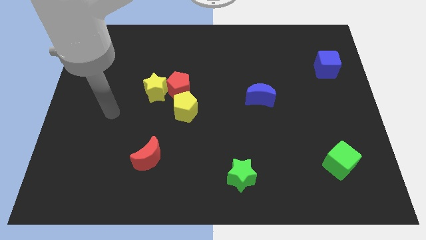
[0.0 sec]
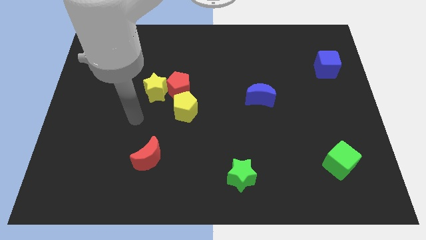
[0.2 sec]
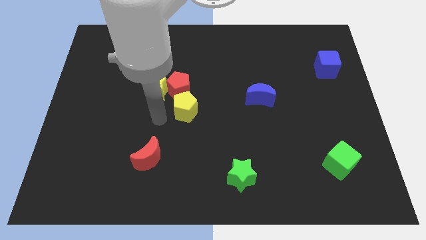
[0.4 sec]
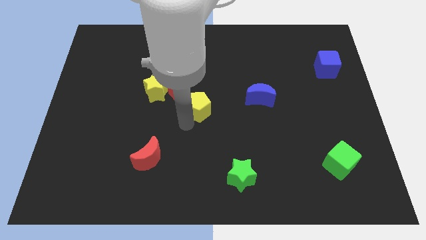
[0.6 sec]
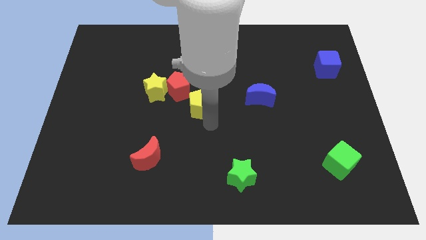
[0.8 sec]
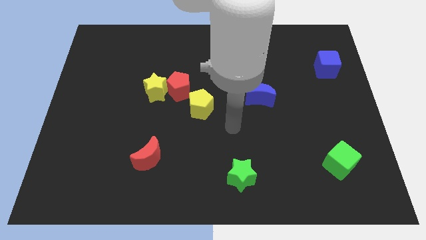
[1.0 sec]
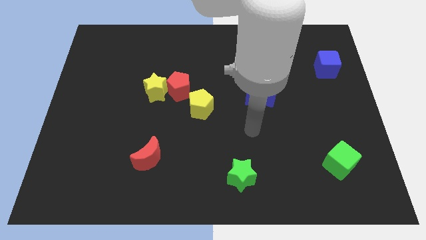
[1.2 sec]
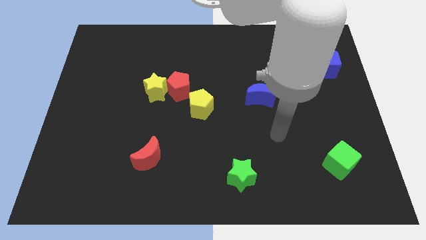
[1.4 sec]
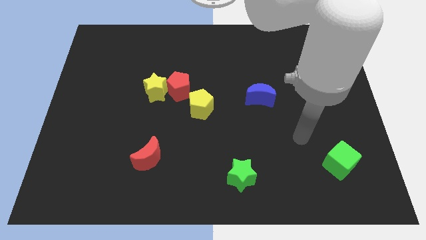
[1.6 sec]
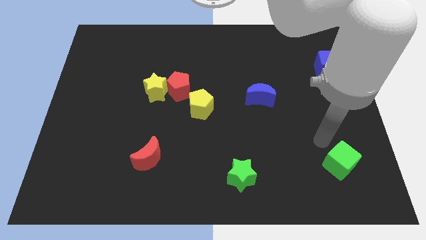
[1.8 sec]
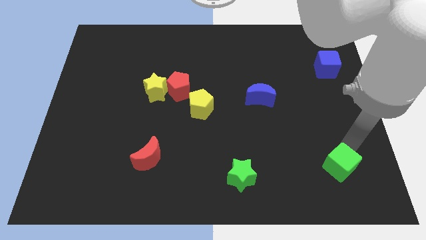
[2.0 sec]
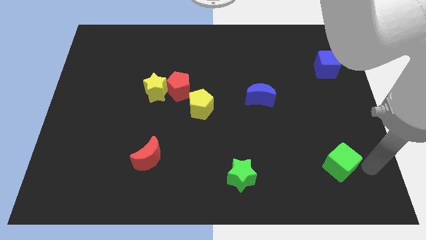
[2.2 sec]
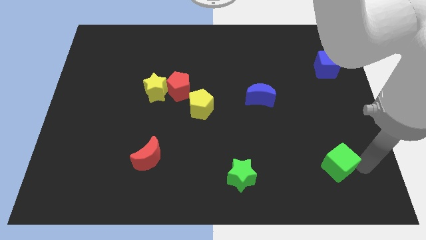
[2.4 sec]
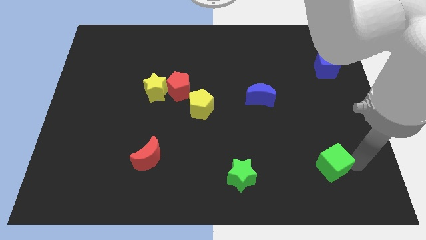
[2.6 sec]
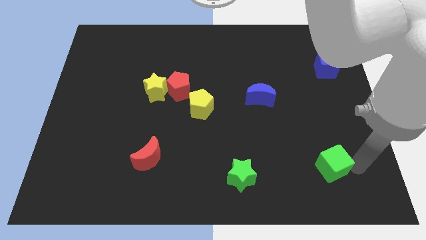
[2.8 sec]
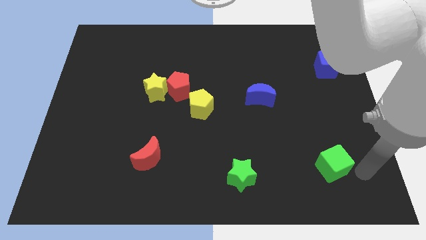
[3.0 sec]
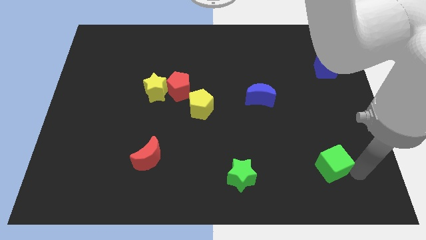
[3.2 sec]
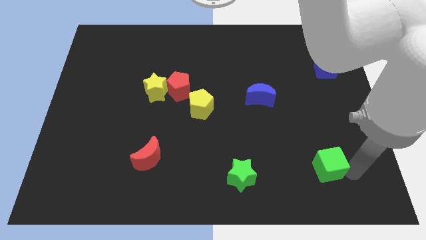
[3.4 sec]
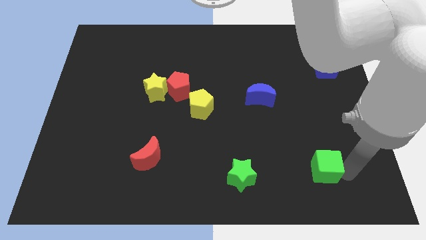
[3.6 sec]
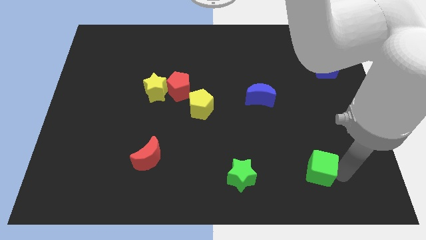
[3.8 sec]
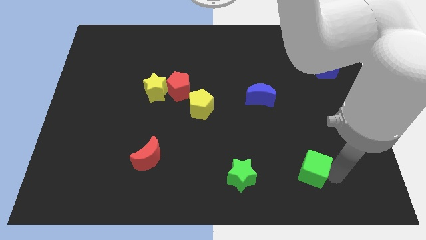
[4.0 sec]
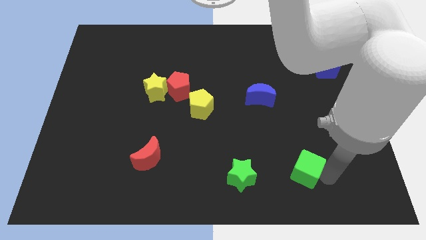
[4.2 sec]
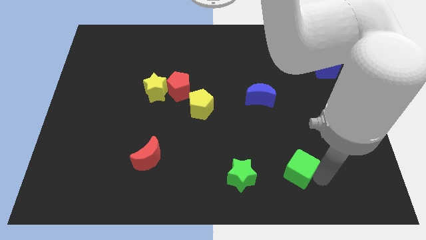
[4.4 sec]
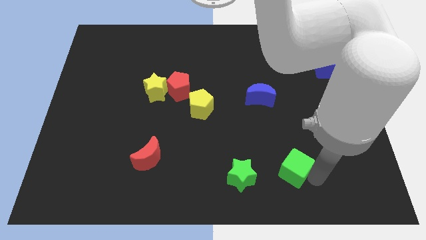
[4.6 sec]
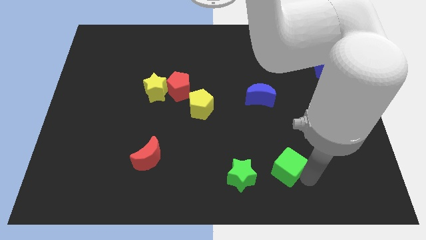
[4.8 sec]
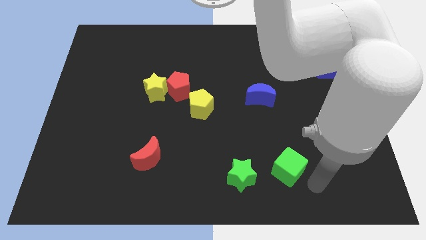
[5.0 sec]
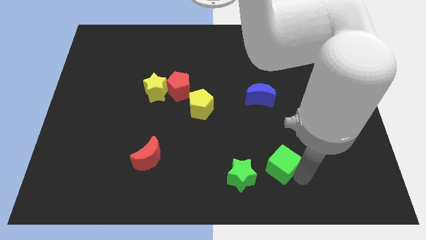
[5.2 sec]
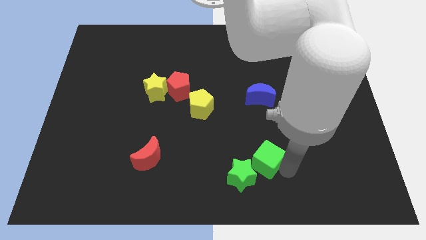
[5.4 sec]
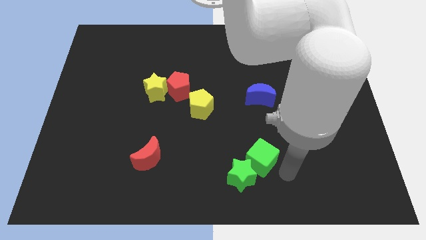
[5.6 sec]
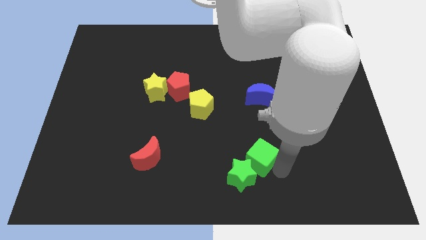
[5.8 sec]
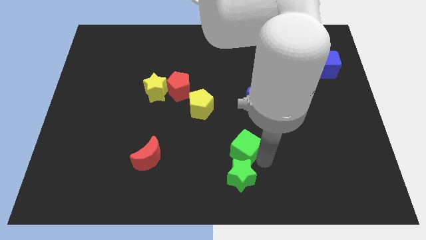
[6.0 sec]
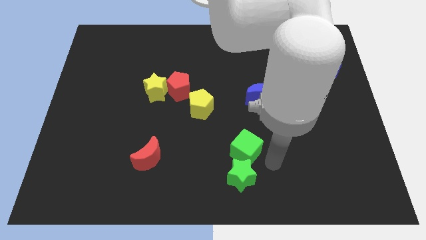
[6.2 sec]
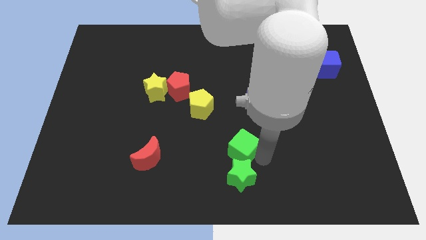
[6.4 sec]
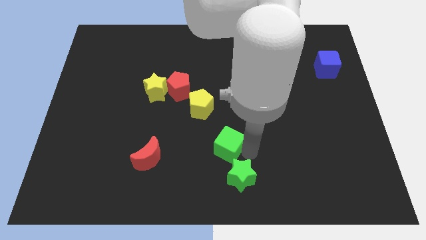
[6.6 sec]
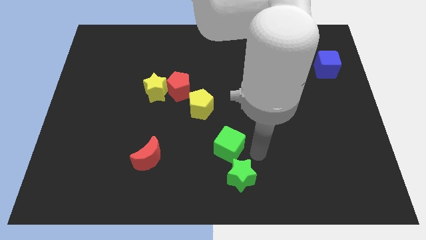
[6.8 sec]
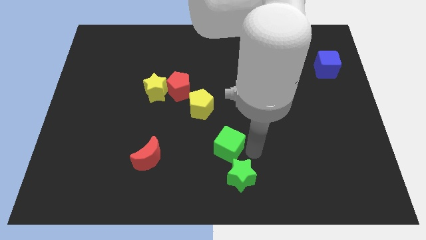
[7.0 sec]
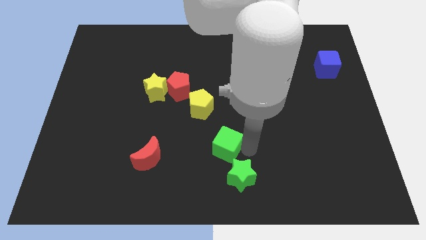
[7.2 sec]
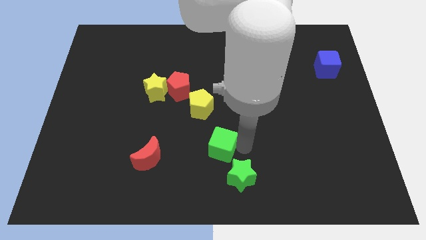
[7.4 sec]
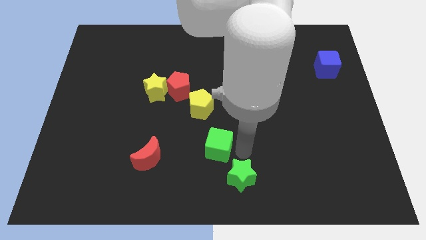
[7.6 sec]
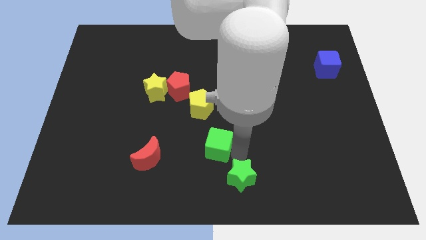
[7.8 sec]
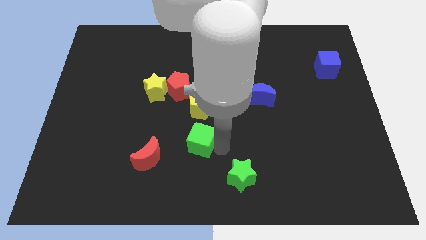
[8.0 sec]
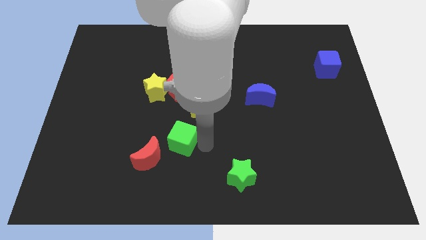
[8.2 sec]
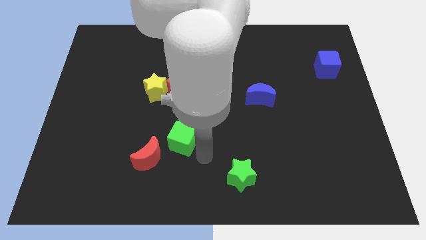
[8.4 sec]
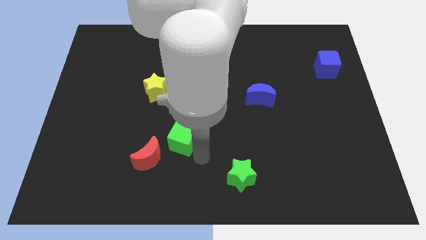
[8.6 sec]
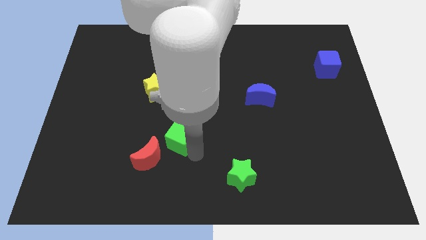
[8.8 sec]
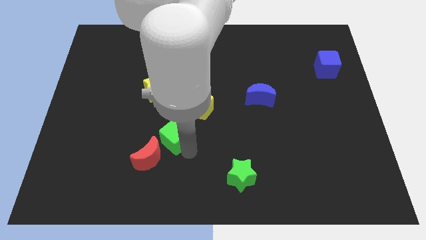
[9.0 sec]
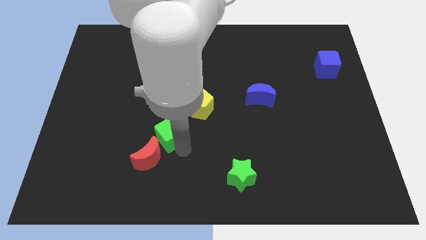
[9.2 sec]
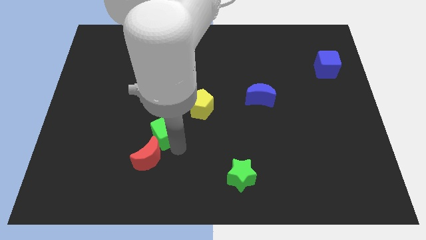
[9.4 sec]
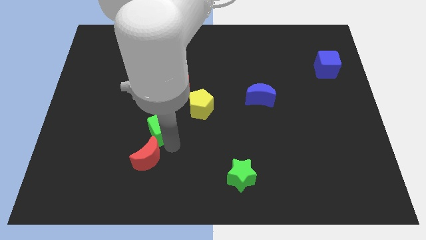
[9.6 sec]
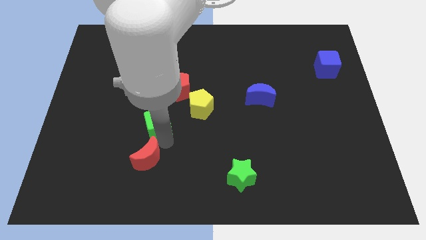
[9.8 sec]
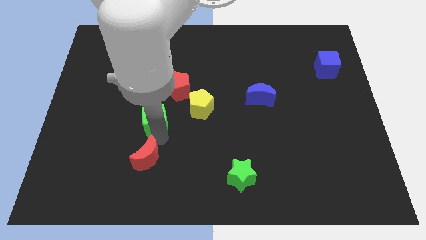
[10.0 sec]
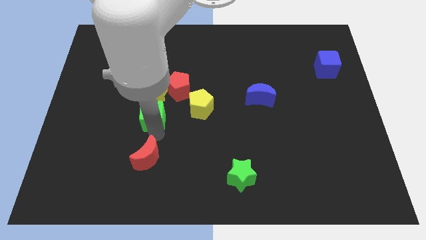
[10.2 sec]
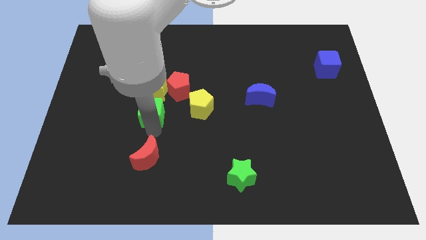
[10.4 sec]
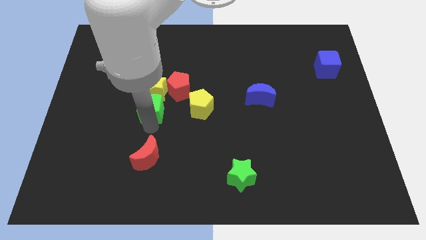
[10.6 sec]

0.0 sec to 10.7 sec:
move the green cube to the yellow star

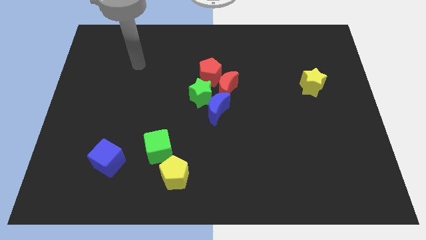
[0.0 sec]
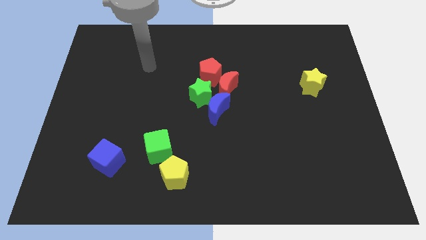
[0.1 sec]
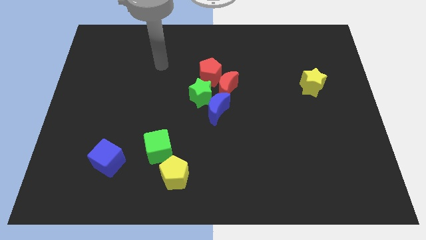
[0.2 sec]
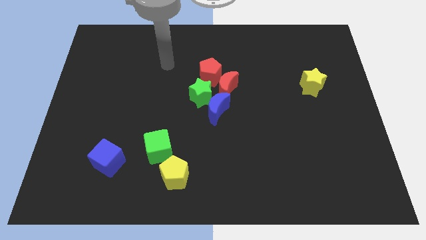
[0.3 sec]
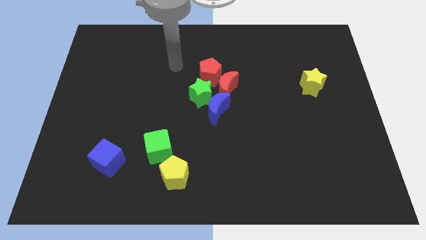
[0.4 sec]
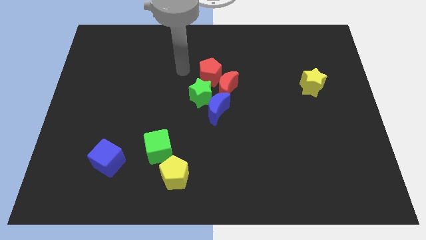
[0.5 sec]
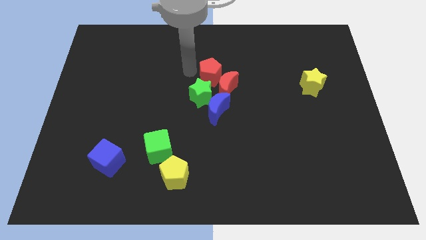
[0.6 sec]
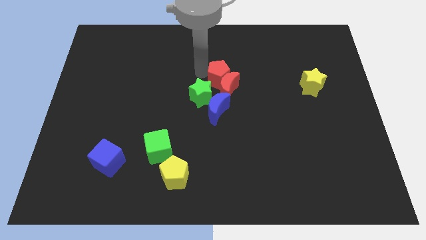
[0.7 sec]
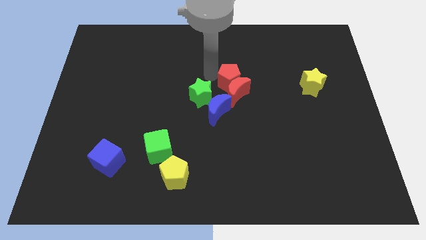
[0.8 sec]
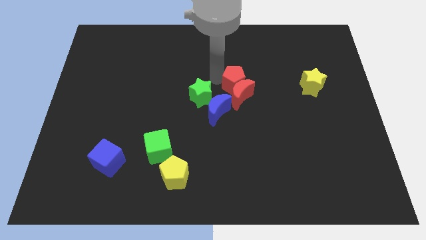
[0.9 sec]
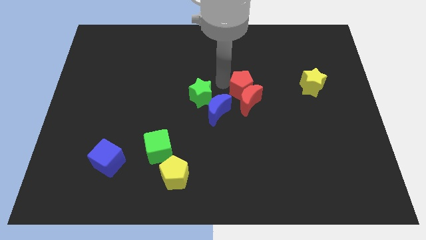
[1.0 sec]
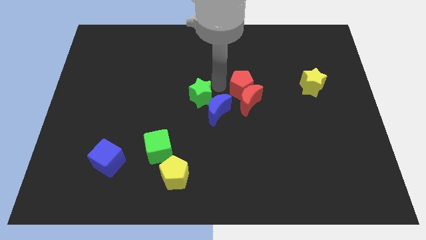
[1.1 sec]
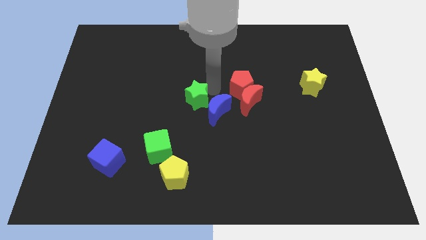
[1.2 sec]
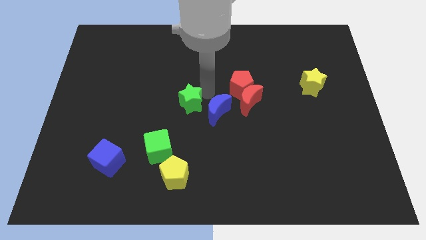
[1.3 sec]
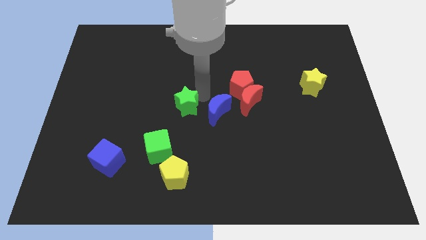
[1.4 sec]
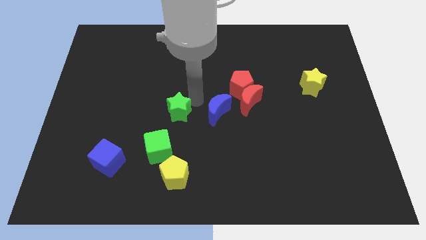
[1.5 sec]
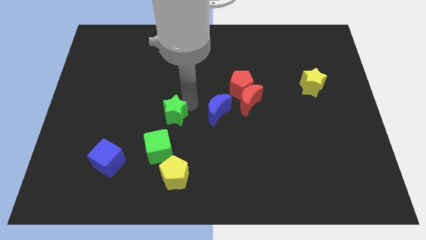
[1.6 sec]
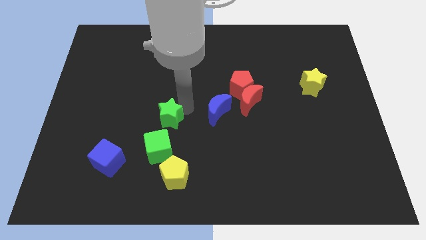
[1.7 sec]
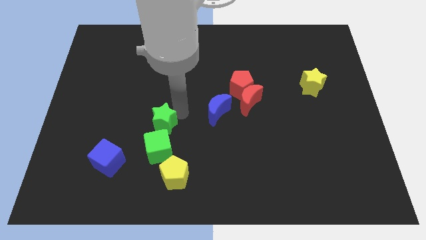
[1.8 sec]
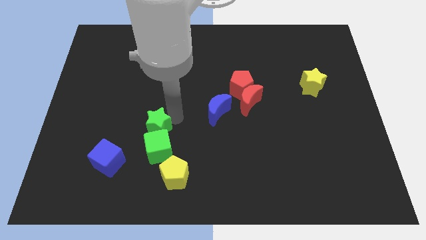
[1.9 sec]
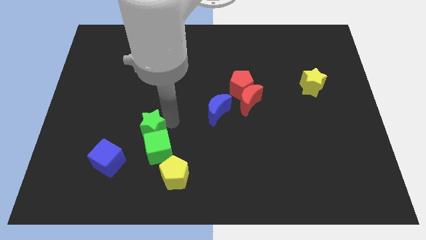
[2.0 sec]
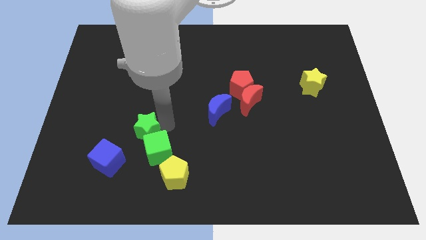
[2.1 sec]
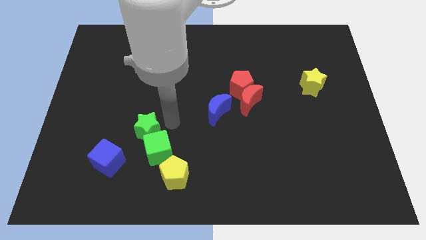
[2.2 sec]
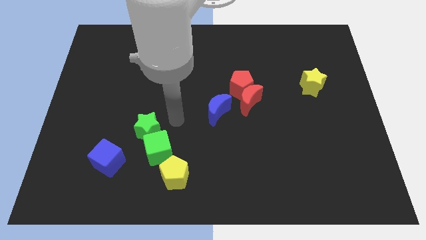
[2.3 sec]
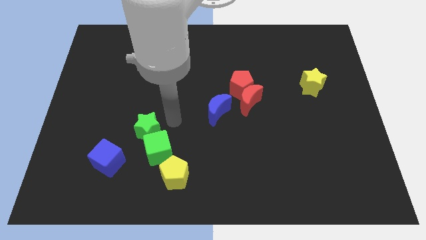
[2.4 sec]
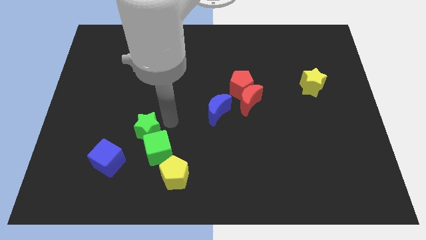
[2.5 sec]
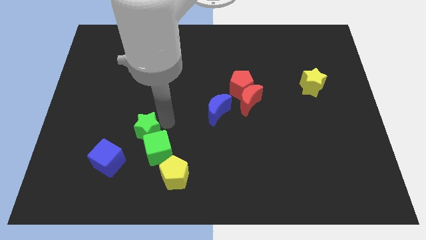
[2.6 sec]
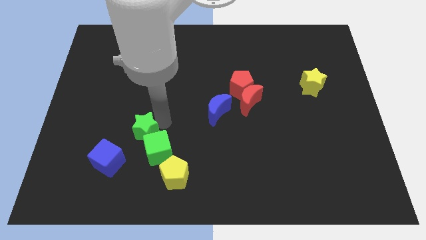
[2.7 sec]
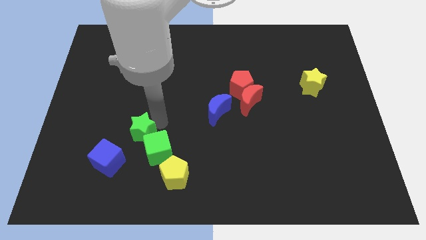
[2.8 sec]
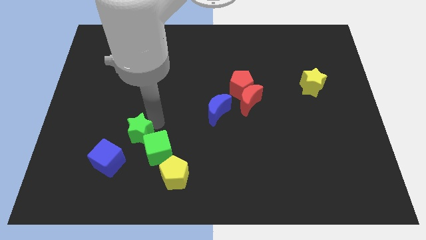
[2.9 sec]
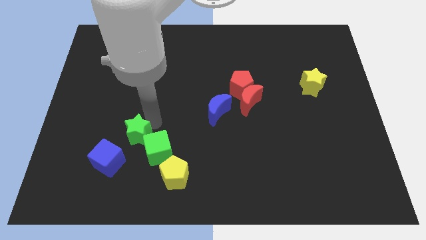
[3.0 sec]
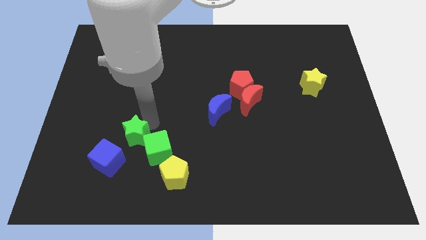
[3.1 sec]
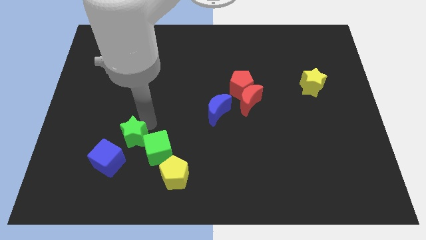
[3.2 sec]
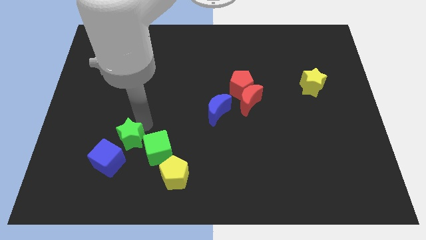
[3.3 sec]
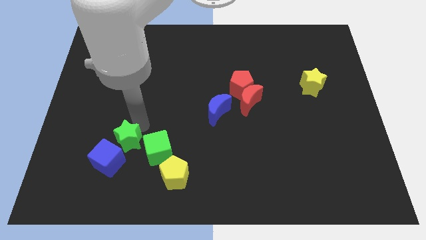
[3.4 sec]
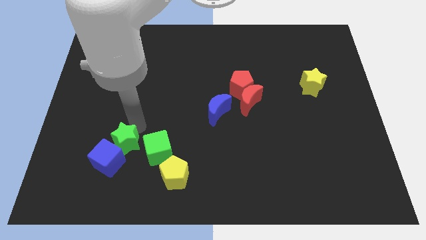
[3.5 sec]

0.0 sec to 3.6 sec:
put the green star towards the blue cube
